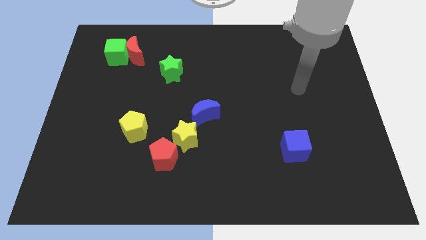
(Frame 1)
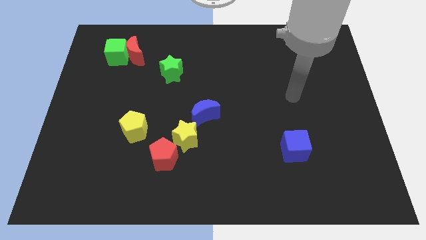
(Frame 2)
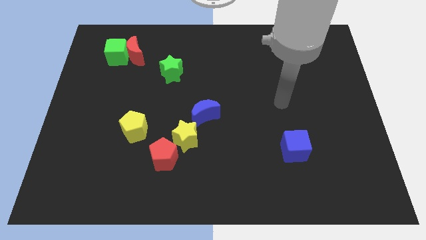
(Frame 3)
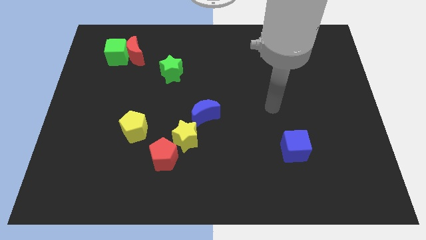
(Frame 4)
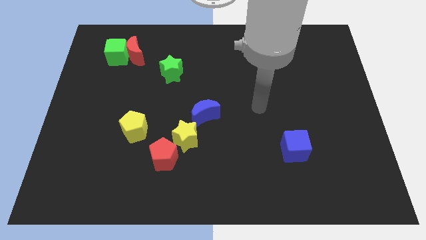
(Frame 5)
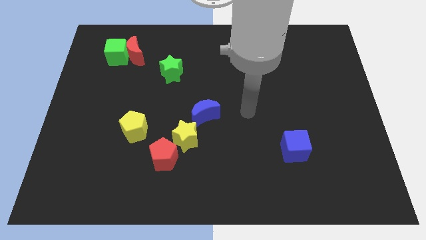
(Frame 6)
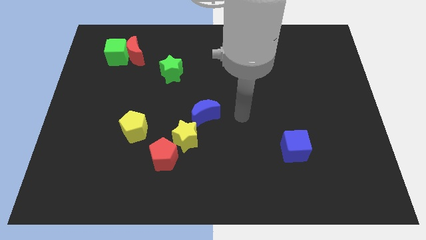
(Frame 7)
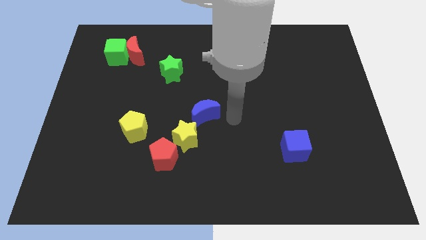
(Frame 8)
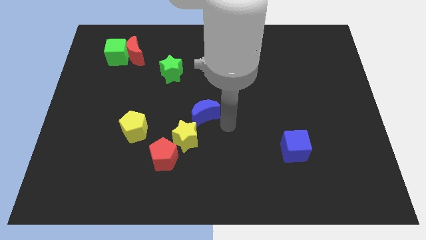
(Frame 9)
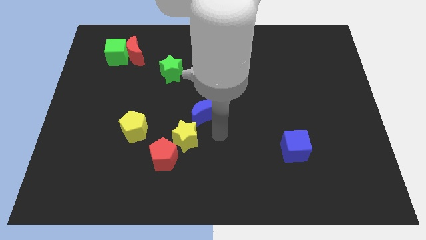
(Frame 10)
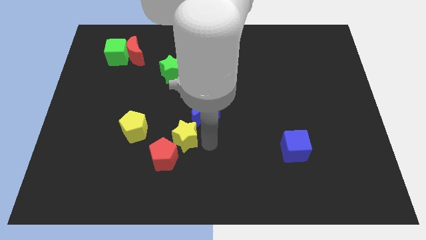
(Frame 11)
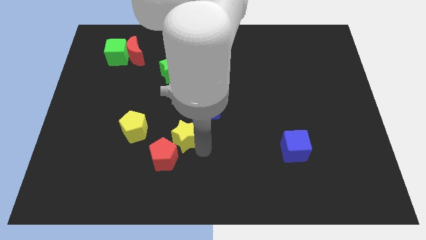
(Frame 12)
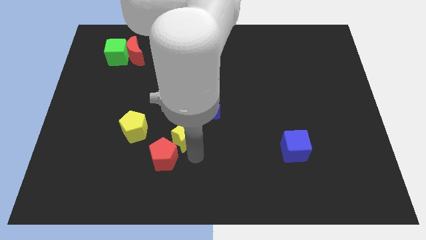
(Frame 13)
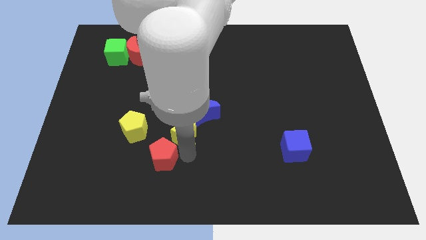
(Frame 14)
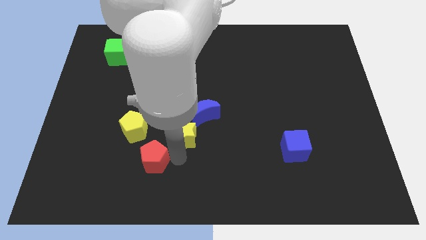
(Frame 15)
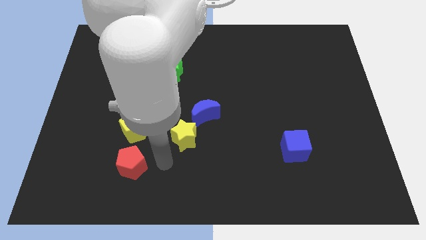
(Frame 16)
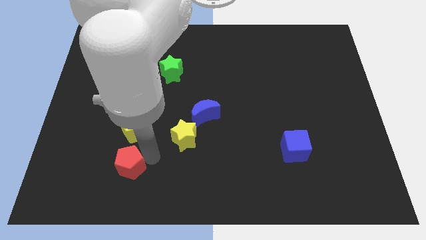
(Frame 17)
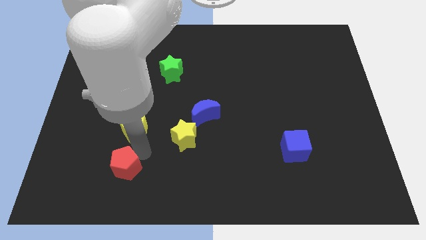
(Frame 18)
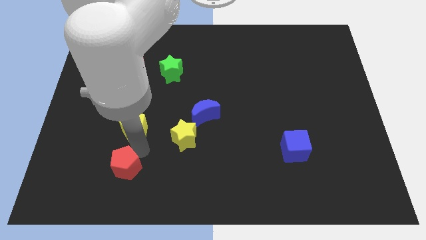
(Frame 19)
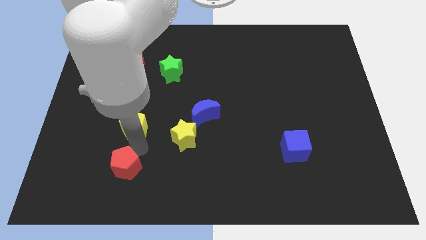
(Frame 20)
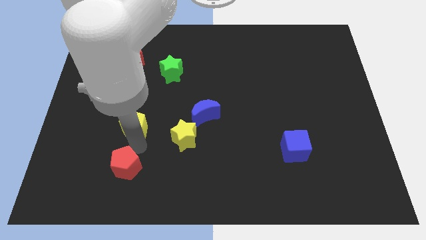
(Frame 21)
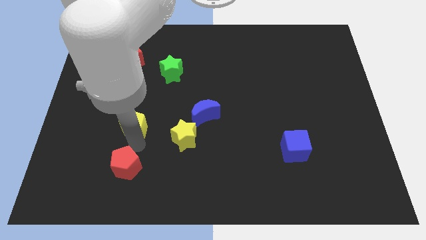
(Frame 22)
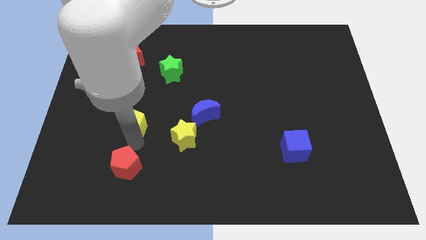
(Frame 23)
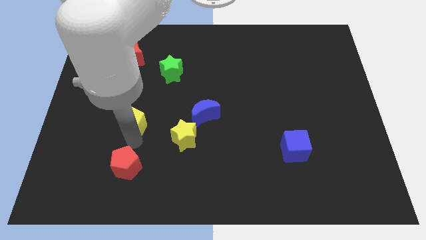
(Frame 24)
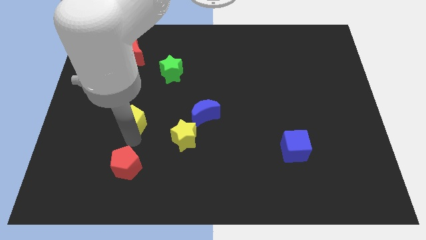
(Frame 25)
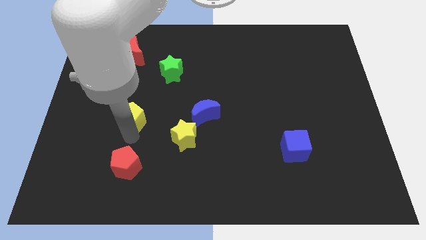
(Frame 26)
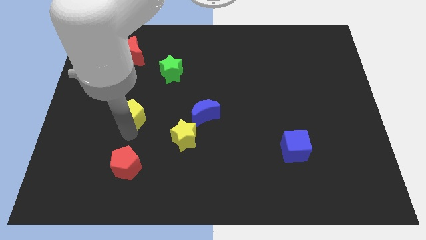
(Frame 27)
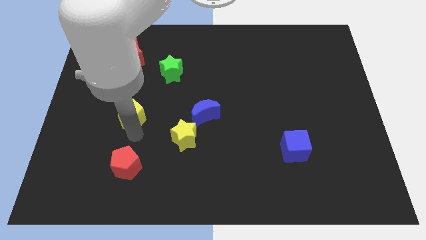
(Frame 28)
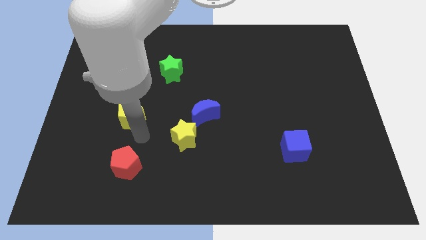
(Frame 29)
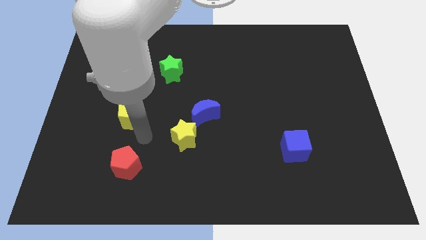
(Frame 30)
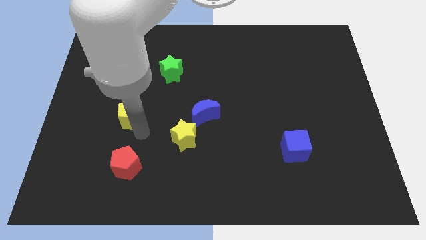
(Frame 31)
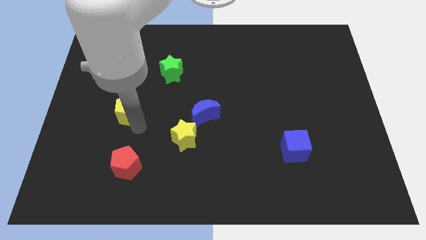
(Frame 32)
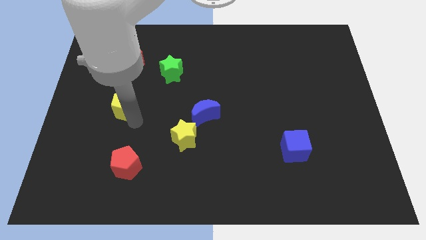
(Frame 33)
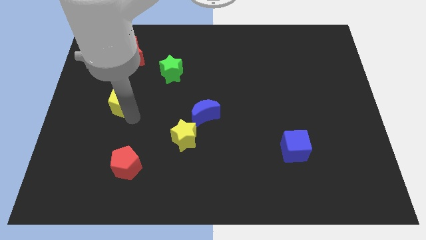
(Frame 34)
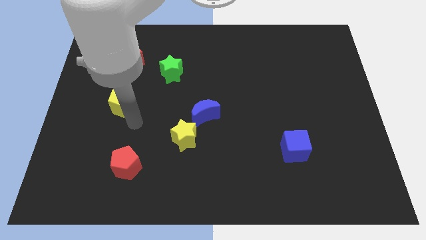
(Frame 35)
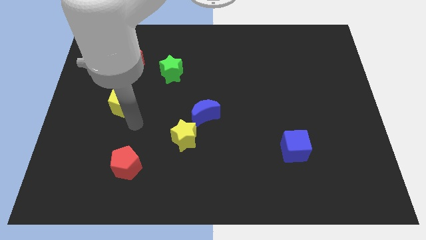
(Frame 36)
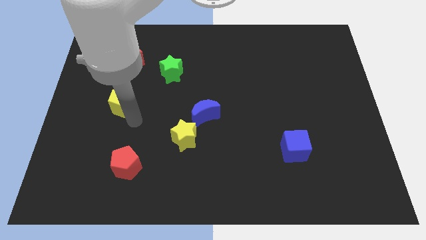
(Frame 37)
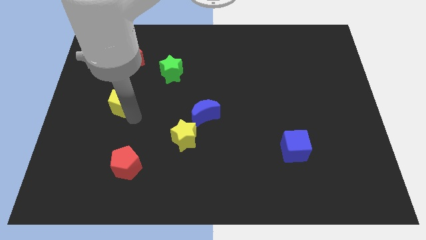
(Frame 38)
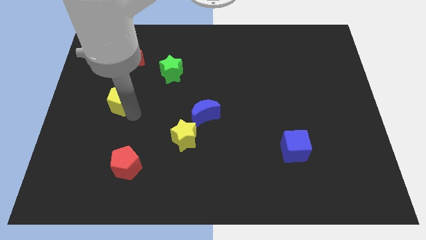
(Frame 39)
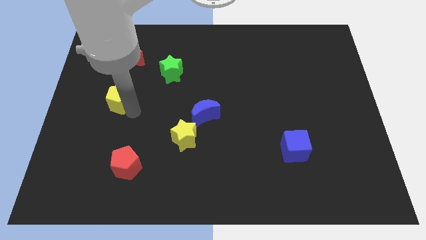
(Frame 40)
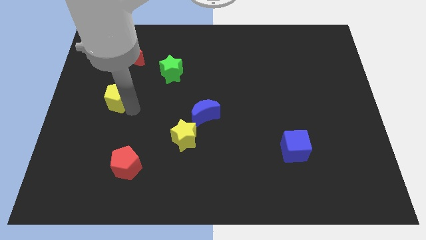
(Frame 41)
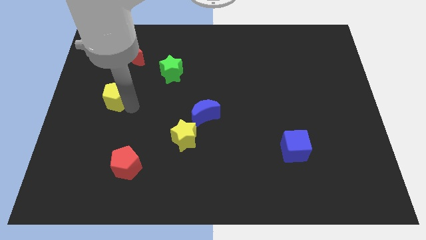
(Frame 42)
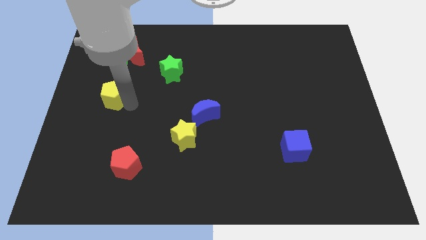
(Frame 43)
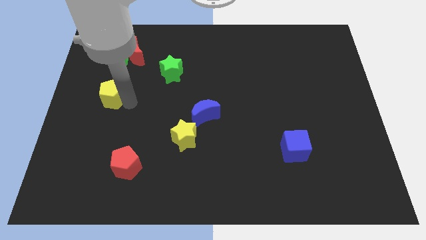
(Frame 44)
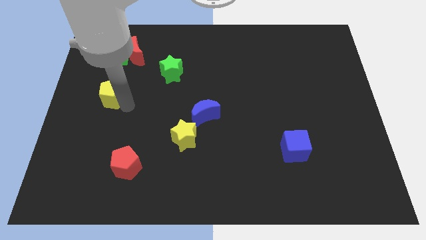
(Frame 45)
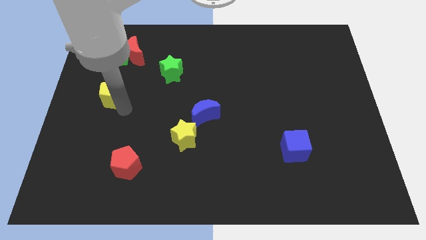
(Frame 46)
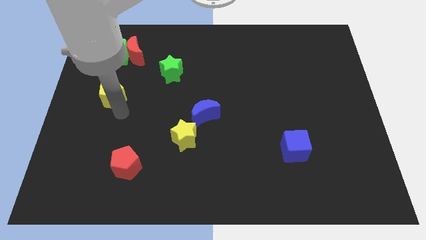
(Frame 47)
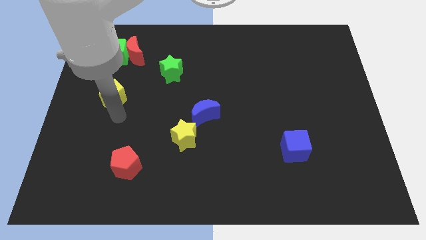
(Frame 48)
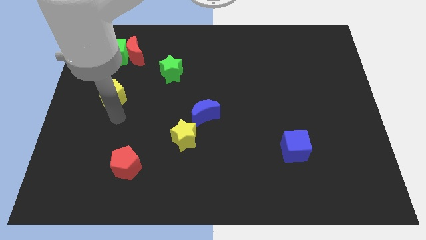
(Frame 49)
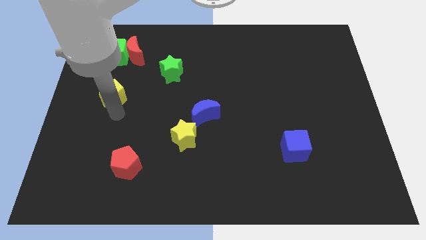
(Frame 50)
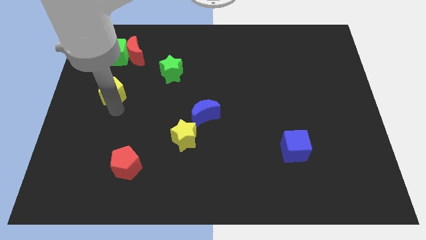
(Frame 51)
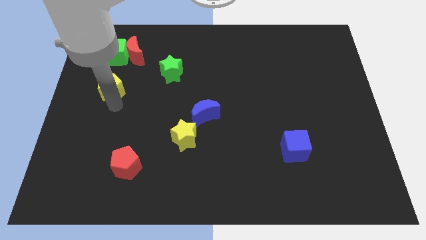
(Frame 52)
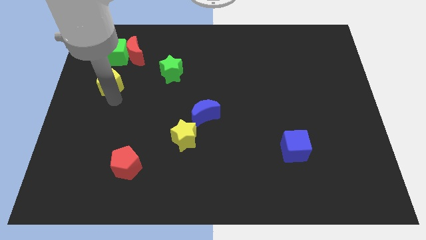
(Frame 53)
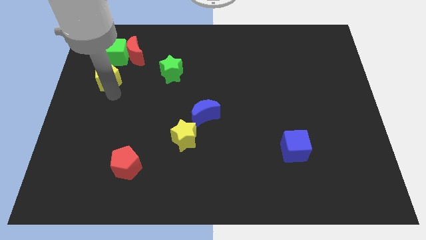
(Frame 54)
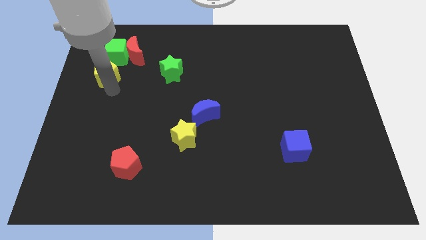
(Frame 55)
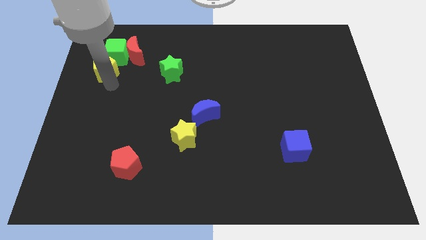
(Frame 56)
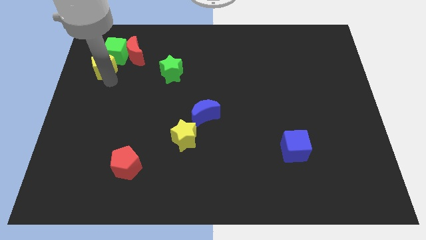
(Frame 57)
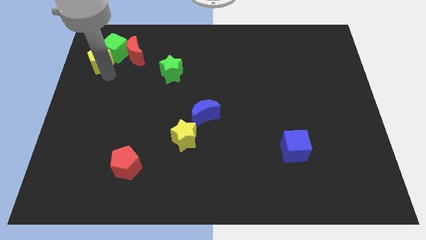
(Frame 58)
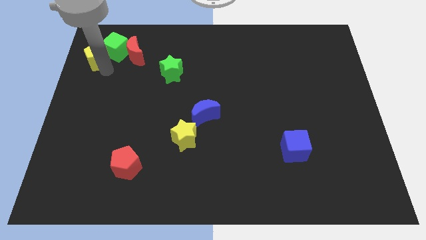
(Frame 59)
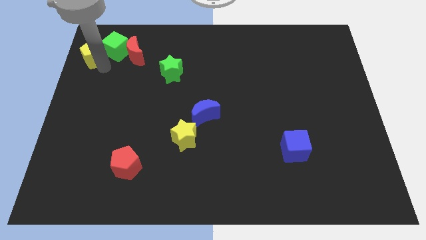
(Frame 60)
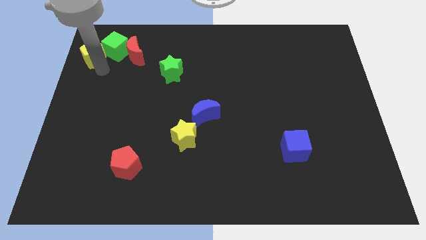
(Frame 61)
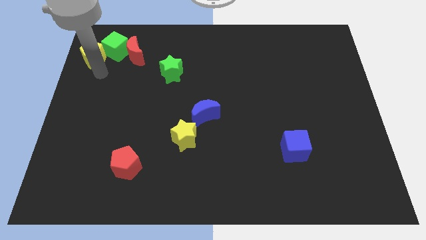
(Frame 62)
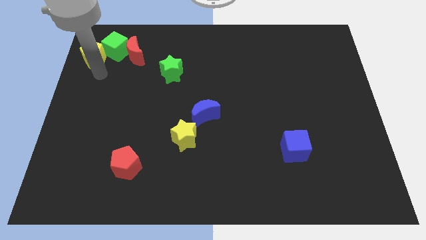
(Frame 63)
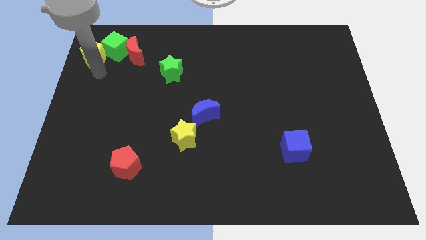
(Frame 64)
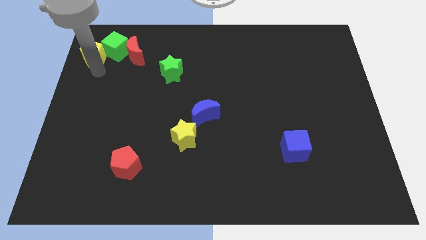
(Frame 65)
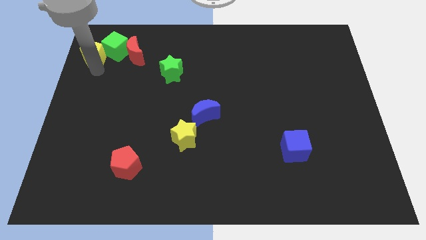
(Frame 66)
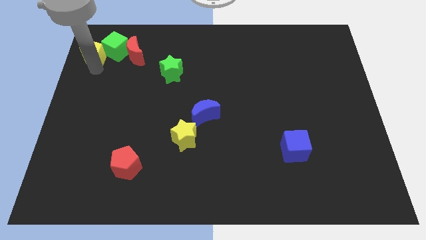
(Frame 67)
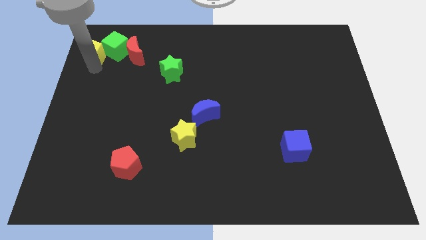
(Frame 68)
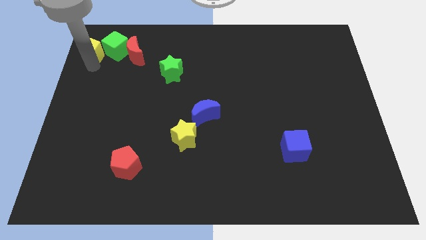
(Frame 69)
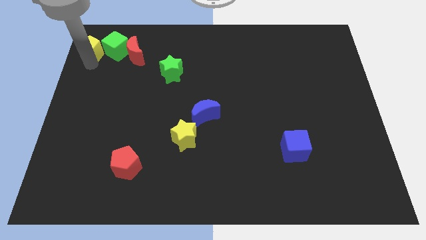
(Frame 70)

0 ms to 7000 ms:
put the yellow pentagon to the top left of the board
